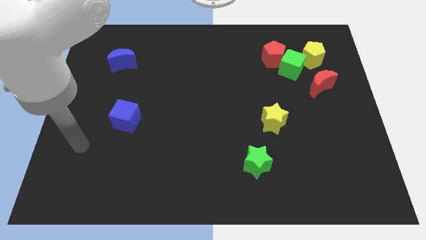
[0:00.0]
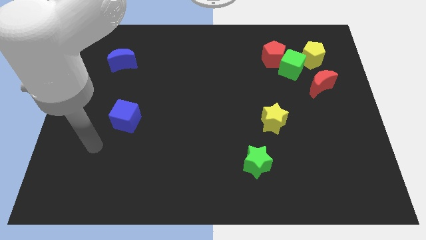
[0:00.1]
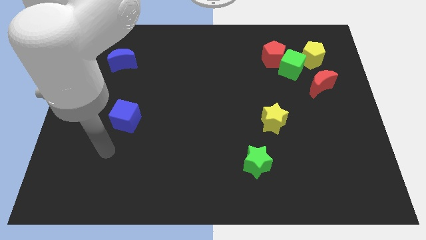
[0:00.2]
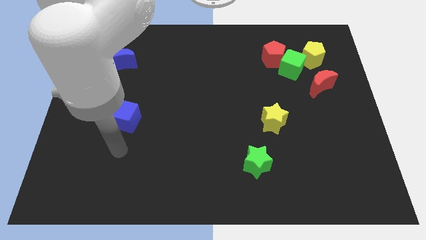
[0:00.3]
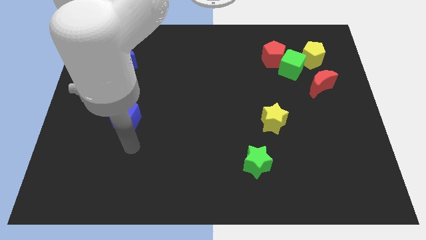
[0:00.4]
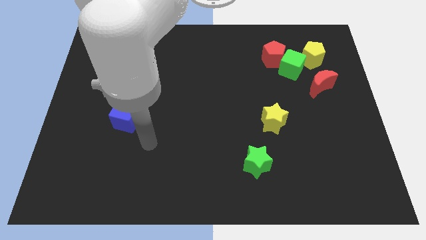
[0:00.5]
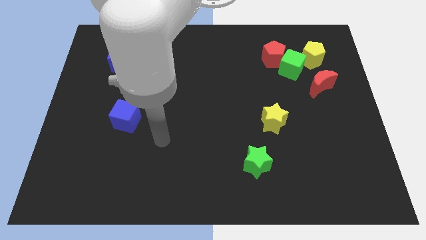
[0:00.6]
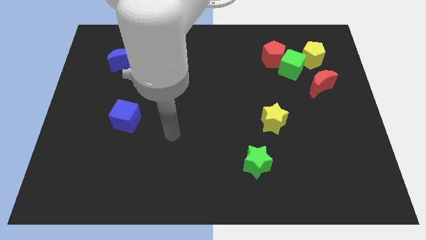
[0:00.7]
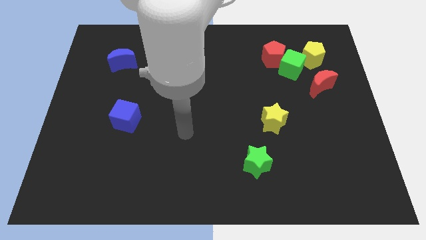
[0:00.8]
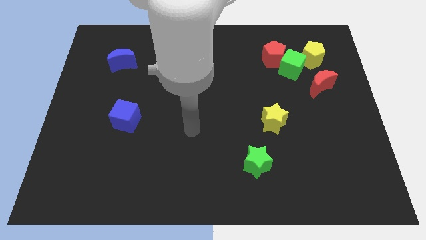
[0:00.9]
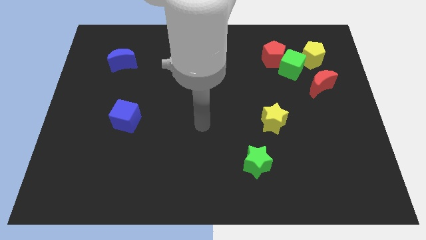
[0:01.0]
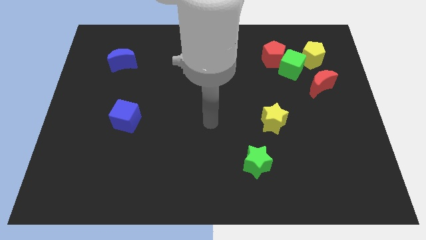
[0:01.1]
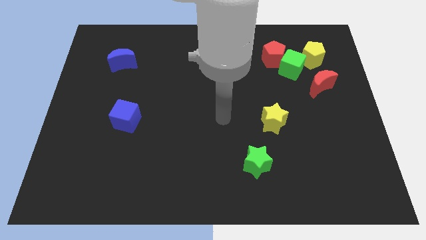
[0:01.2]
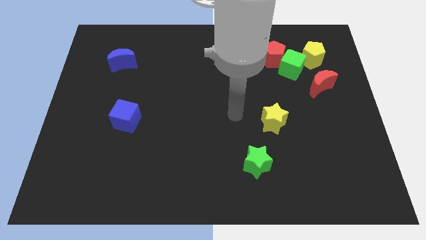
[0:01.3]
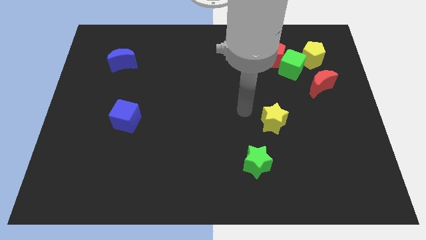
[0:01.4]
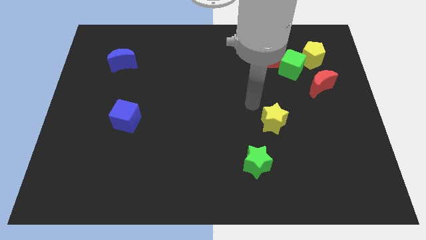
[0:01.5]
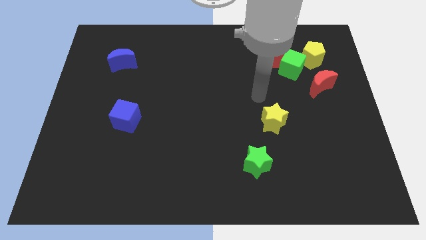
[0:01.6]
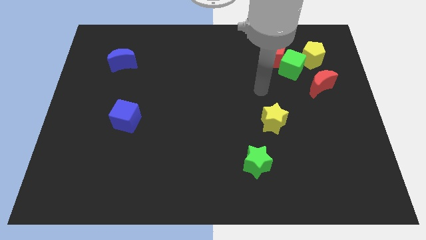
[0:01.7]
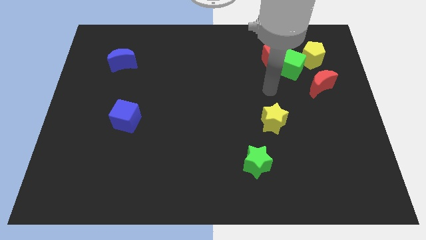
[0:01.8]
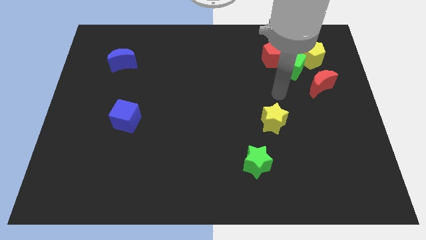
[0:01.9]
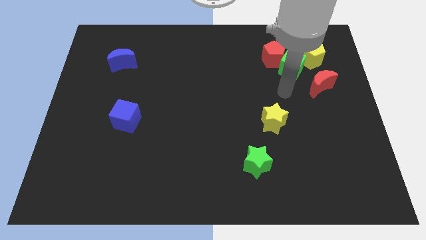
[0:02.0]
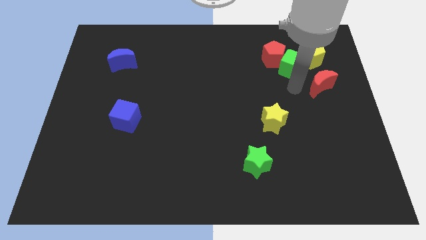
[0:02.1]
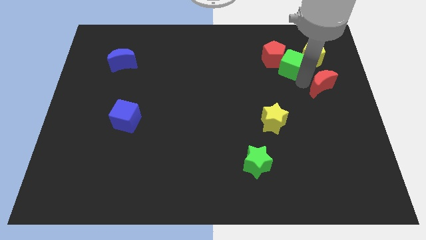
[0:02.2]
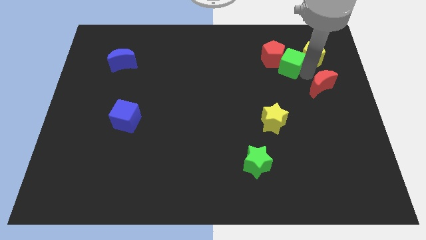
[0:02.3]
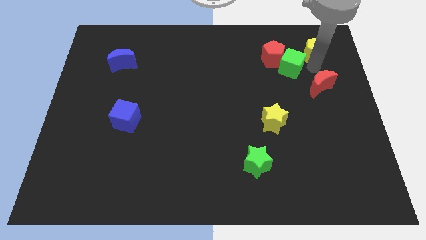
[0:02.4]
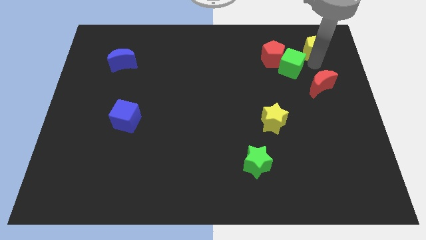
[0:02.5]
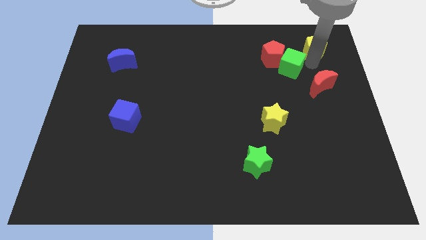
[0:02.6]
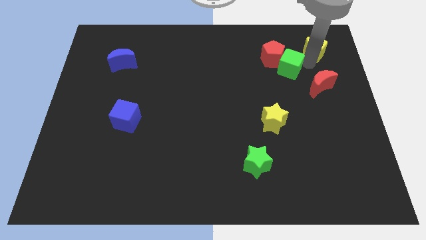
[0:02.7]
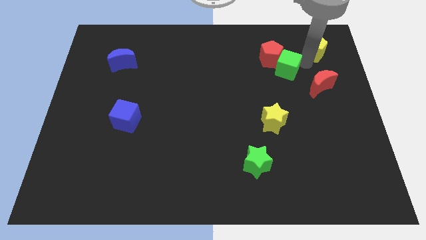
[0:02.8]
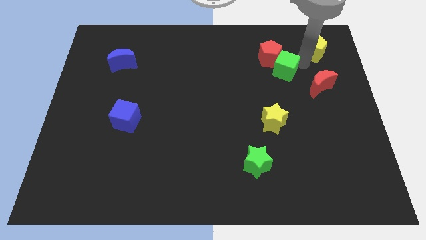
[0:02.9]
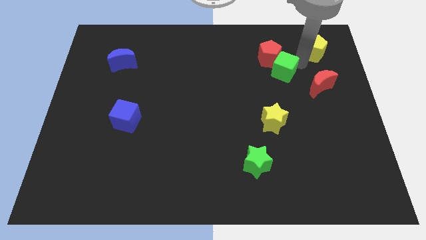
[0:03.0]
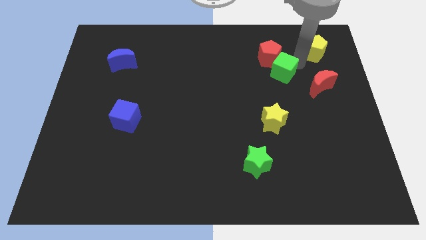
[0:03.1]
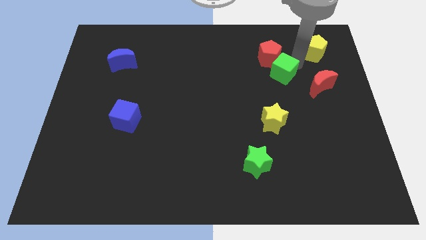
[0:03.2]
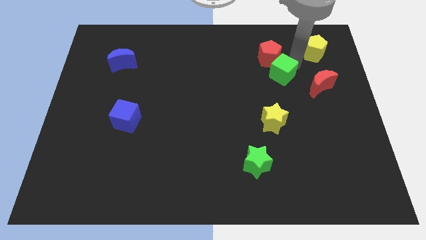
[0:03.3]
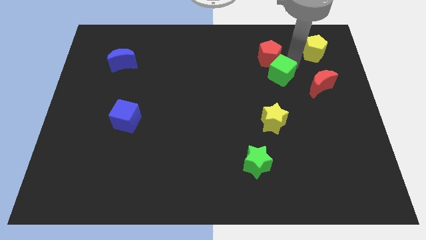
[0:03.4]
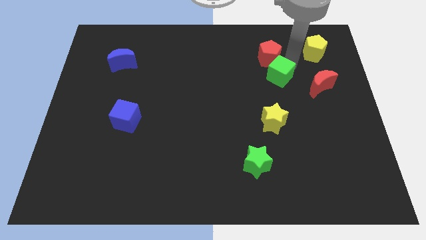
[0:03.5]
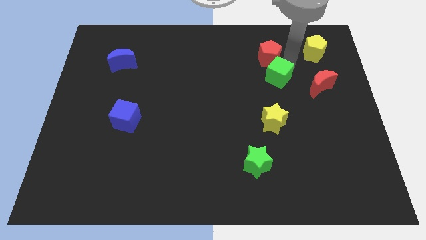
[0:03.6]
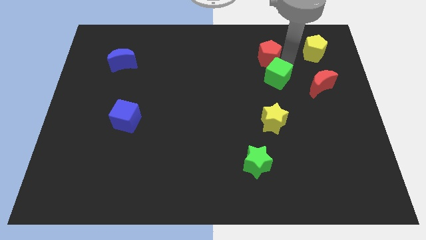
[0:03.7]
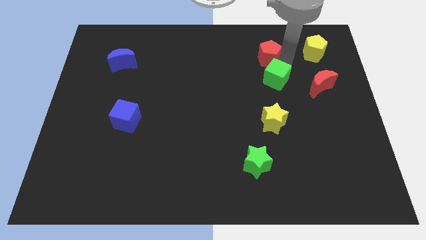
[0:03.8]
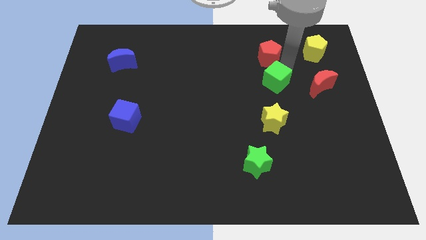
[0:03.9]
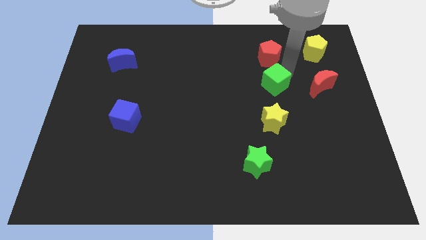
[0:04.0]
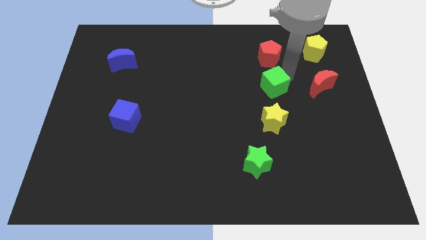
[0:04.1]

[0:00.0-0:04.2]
separate the green cube from the red pentagon, yellow pentagon, and red moon

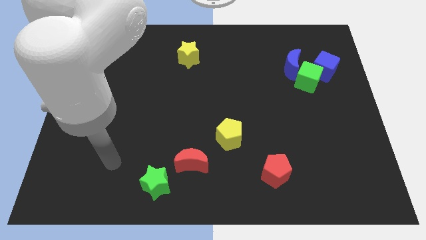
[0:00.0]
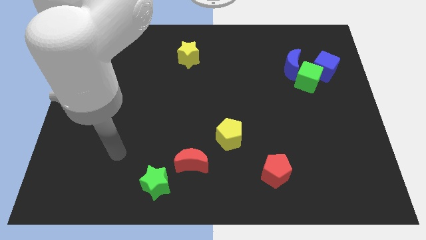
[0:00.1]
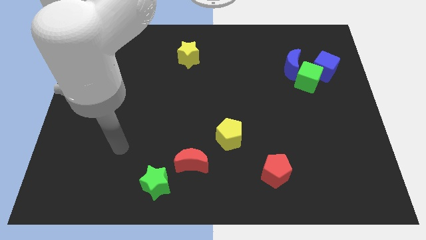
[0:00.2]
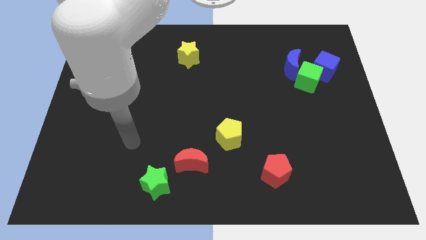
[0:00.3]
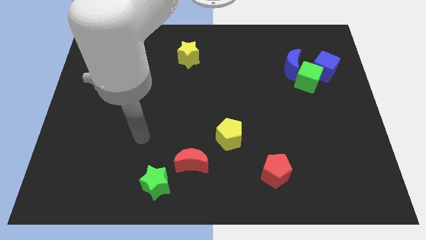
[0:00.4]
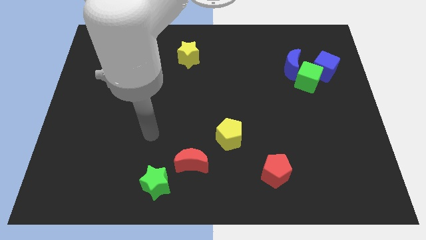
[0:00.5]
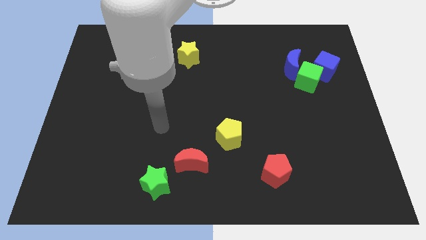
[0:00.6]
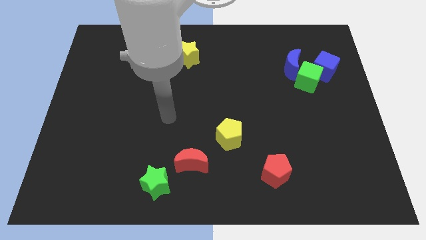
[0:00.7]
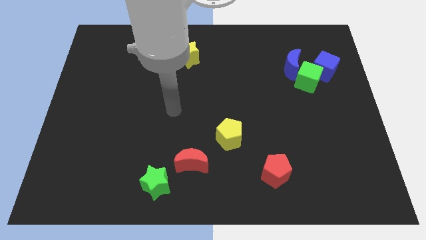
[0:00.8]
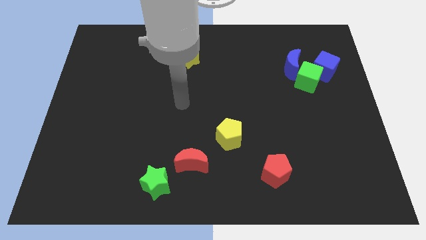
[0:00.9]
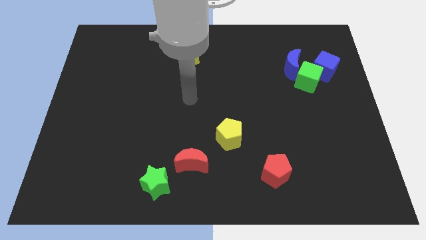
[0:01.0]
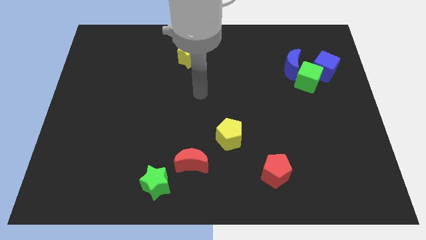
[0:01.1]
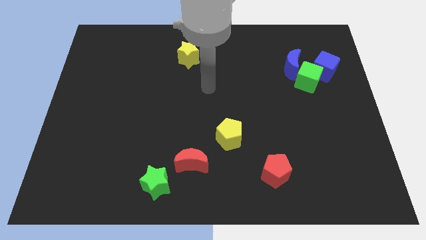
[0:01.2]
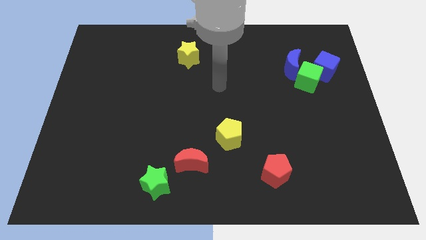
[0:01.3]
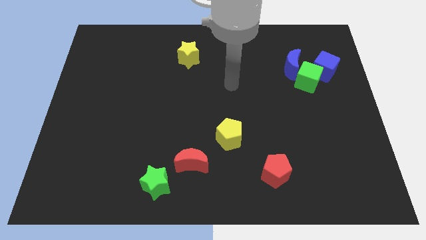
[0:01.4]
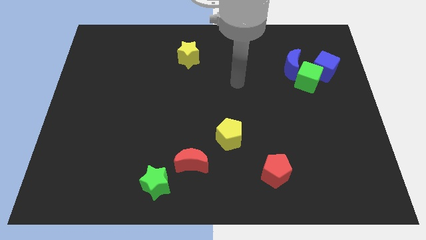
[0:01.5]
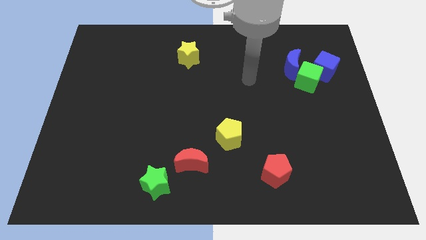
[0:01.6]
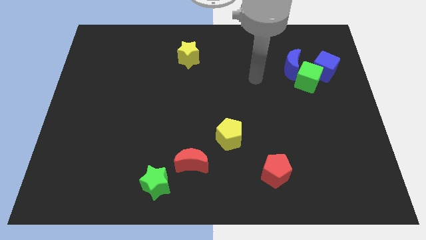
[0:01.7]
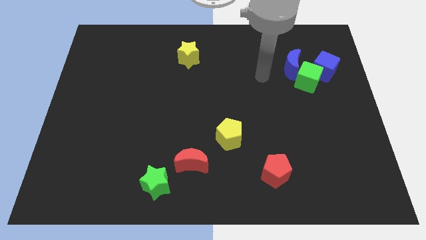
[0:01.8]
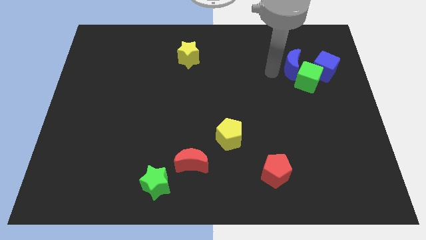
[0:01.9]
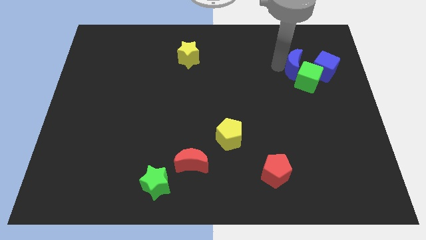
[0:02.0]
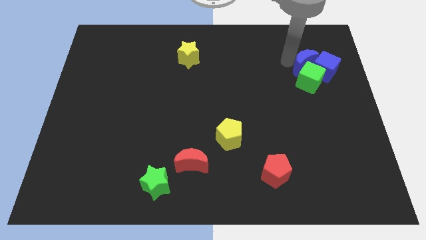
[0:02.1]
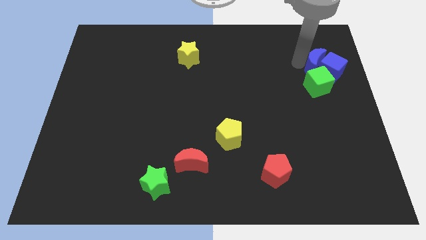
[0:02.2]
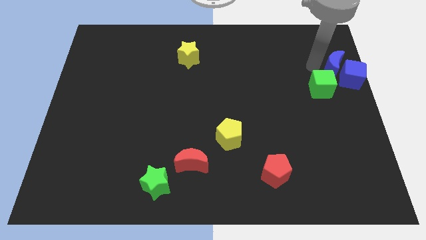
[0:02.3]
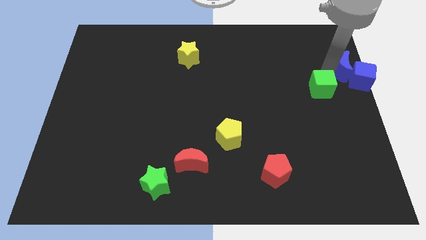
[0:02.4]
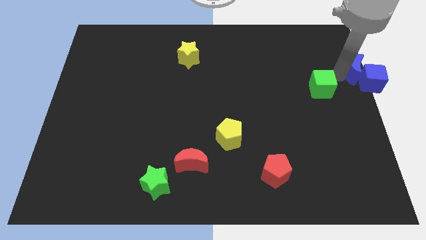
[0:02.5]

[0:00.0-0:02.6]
separate the green cube from the blue moon and blue cube

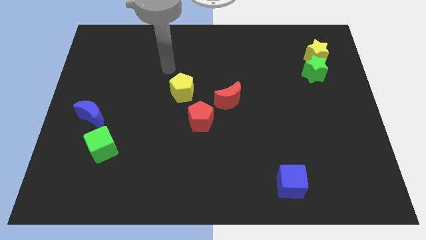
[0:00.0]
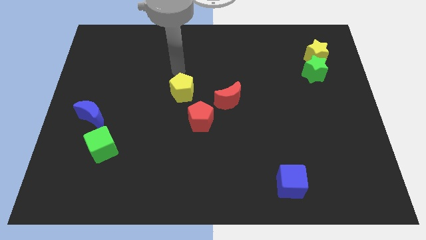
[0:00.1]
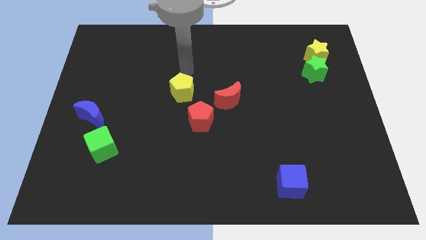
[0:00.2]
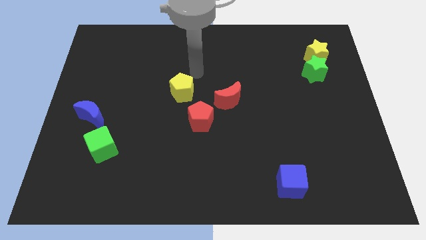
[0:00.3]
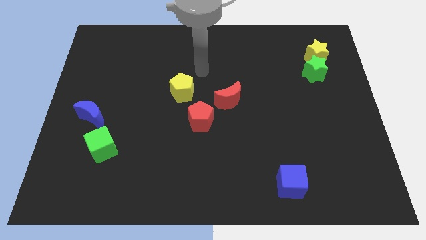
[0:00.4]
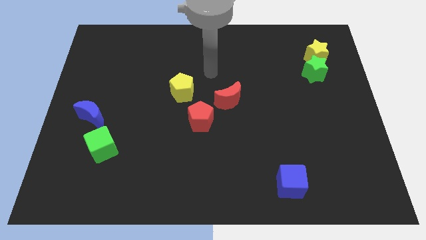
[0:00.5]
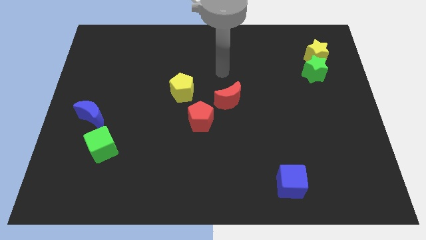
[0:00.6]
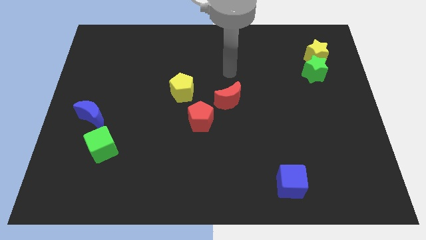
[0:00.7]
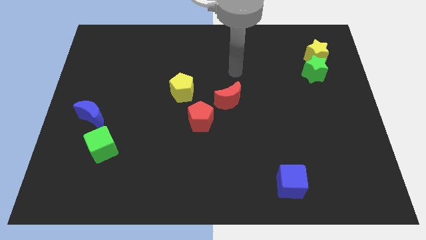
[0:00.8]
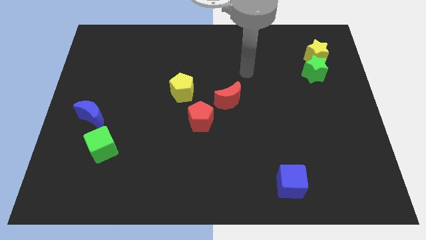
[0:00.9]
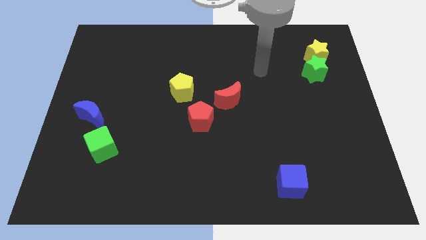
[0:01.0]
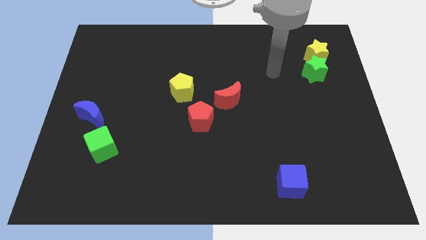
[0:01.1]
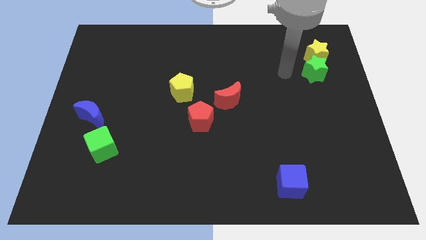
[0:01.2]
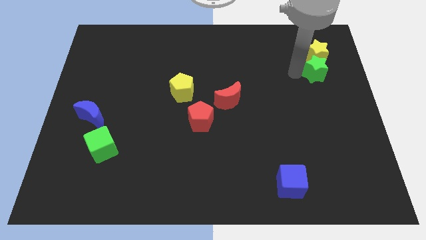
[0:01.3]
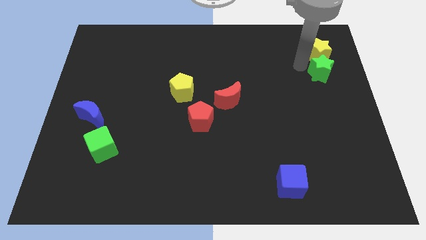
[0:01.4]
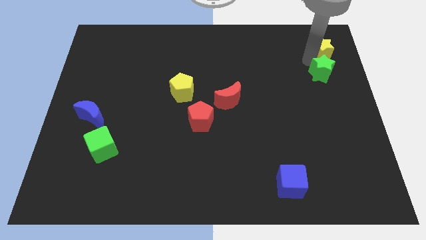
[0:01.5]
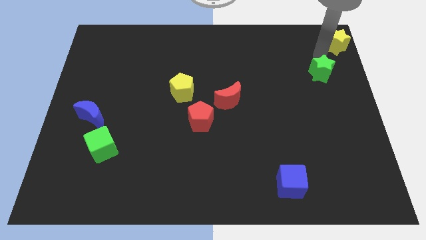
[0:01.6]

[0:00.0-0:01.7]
pull the green star apart from the yellow star

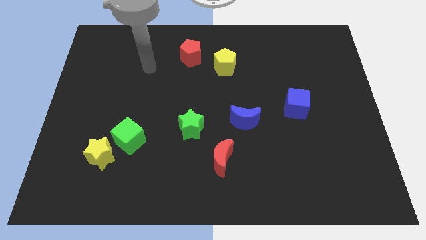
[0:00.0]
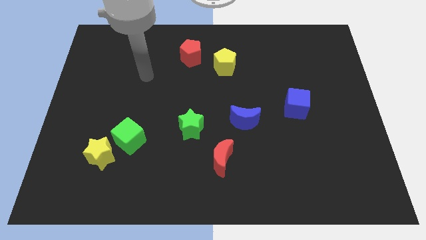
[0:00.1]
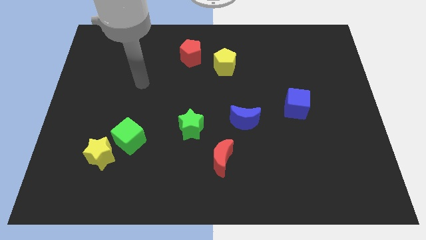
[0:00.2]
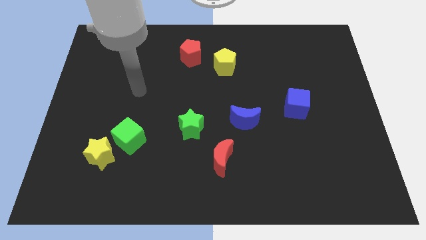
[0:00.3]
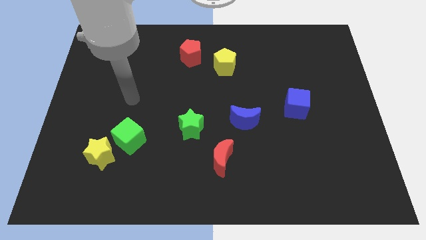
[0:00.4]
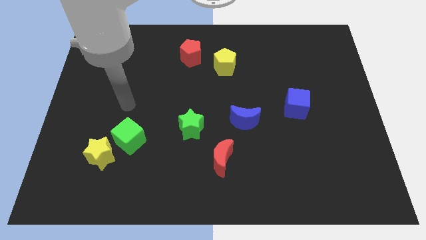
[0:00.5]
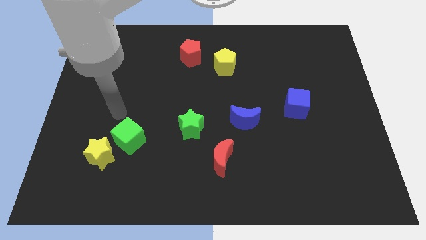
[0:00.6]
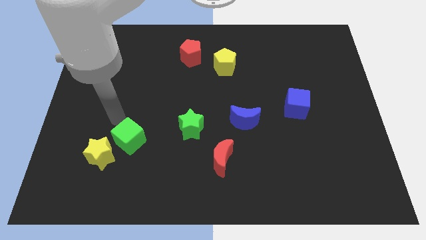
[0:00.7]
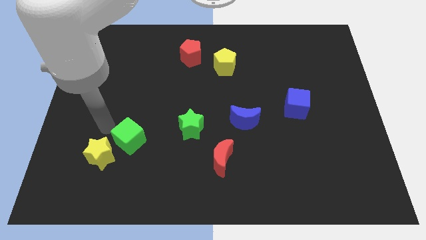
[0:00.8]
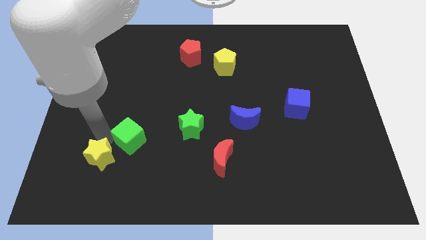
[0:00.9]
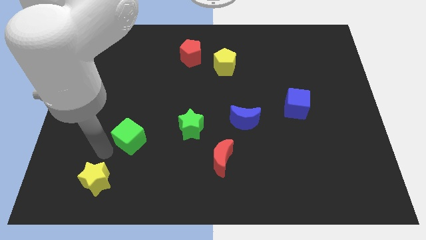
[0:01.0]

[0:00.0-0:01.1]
move the green cube away from the yellow star
